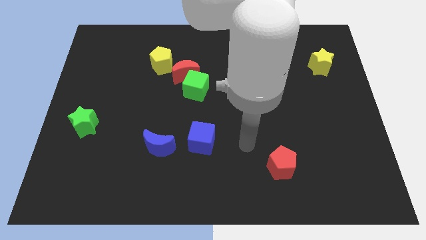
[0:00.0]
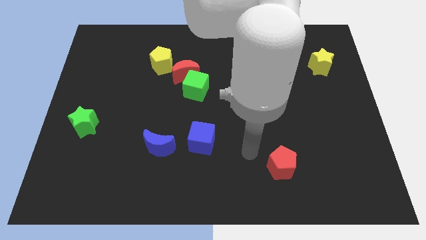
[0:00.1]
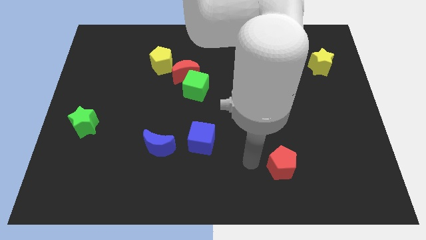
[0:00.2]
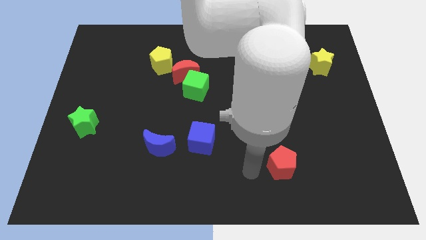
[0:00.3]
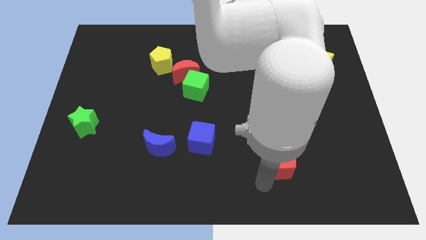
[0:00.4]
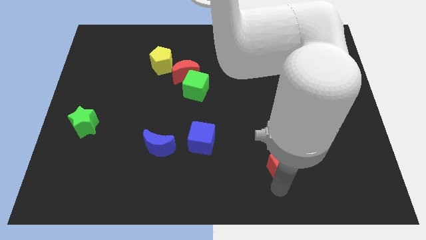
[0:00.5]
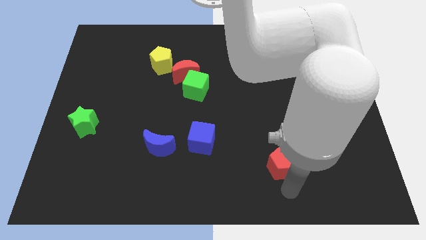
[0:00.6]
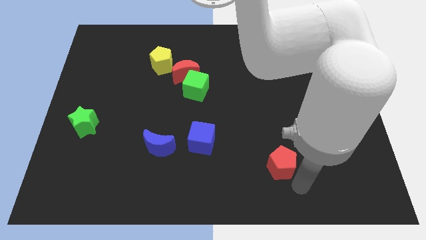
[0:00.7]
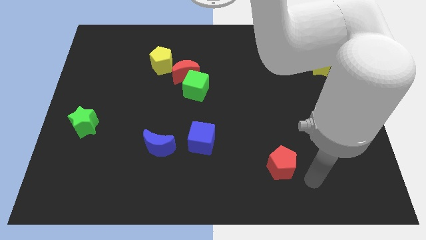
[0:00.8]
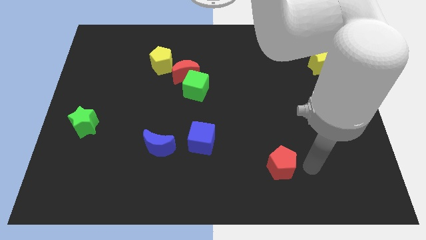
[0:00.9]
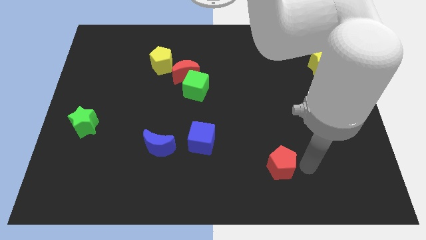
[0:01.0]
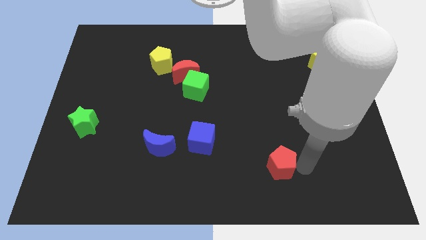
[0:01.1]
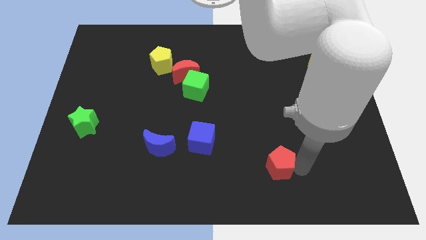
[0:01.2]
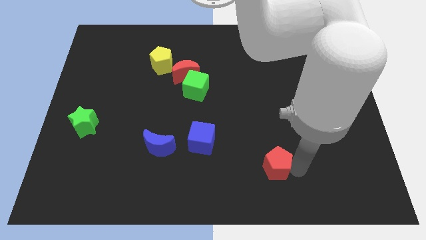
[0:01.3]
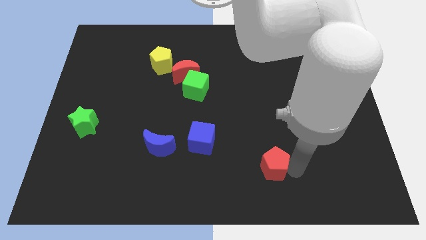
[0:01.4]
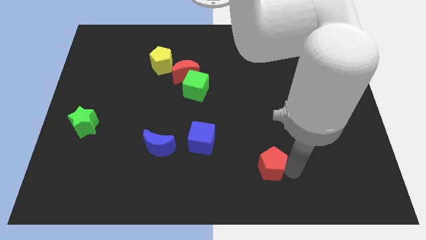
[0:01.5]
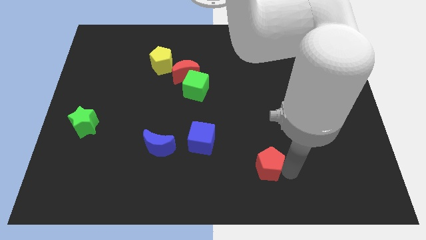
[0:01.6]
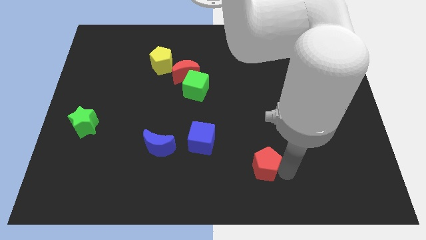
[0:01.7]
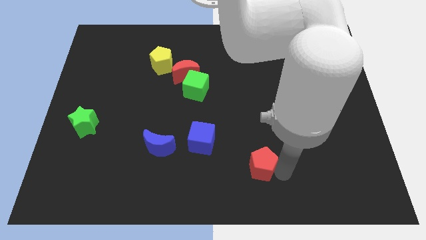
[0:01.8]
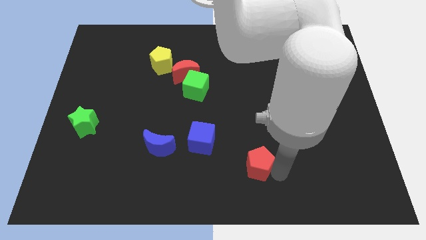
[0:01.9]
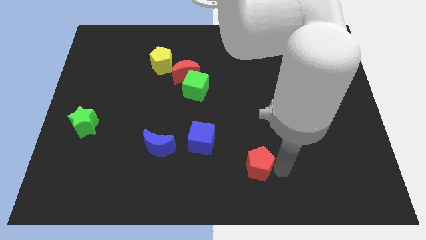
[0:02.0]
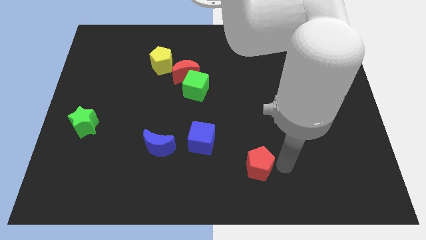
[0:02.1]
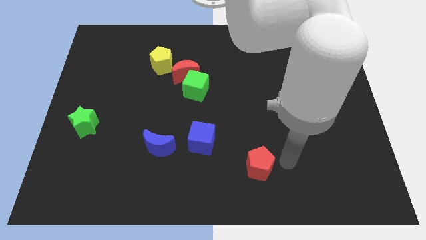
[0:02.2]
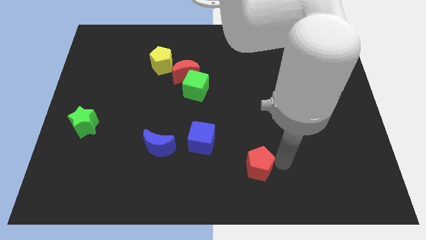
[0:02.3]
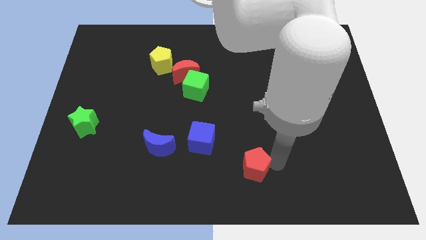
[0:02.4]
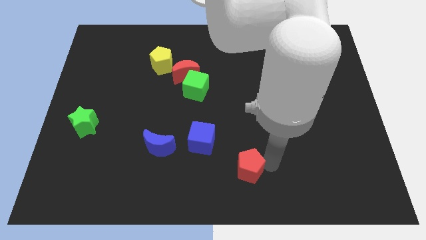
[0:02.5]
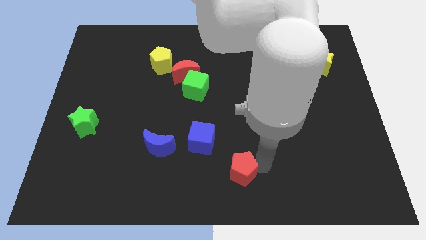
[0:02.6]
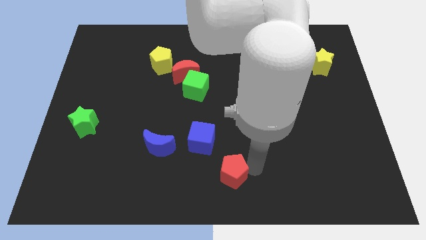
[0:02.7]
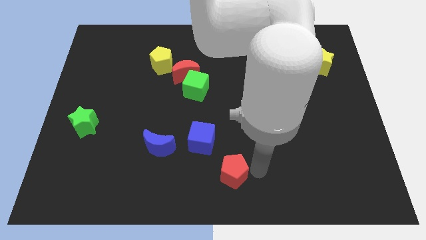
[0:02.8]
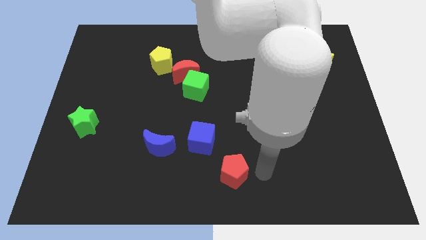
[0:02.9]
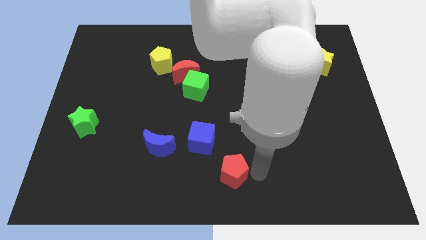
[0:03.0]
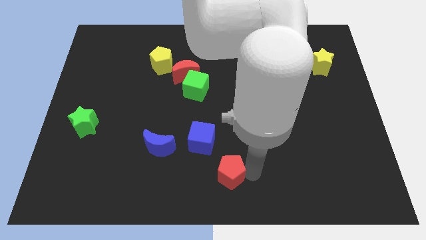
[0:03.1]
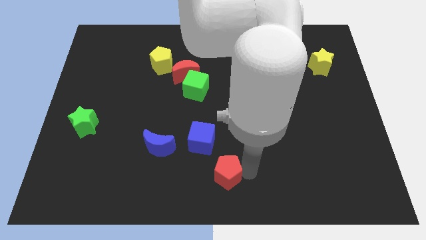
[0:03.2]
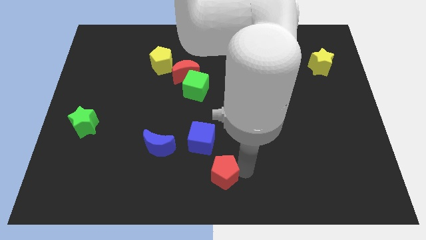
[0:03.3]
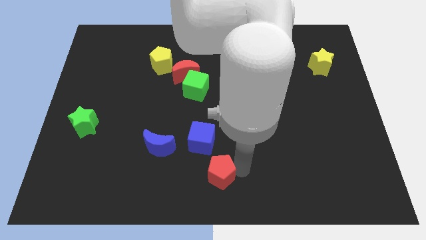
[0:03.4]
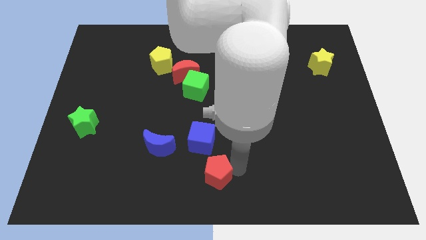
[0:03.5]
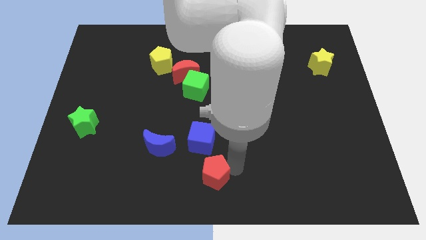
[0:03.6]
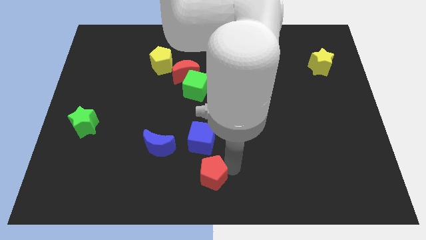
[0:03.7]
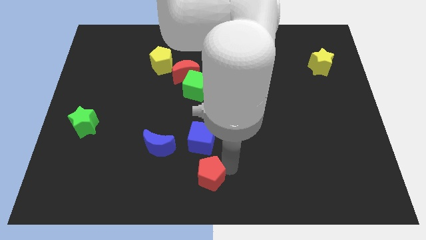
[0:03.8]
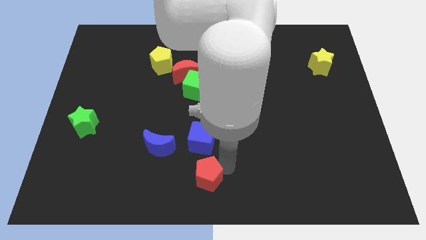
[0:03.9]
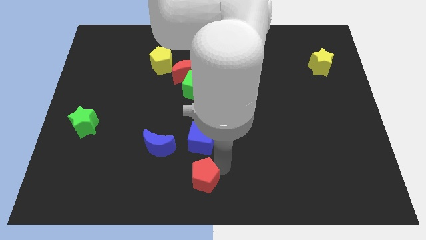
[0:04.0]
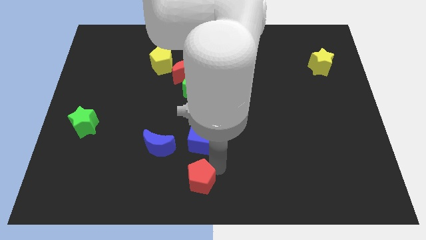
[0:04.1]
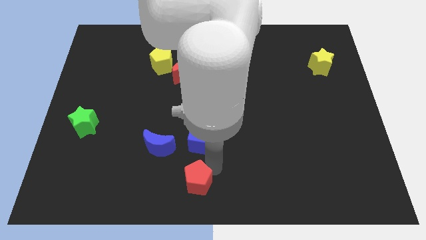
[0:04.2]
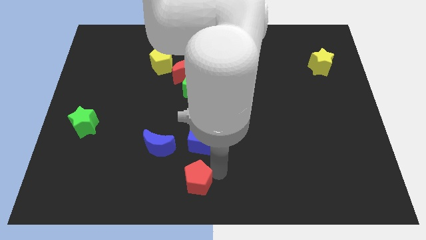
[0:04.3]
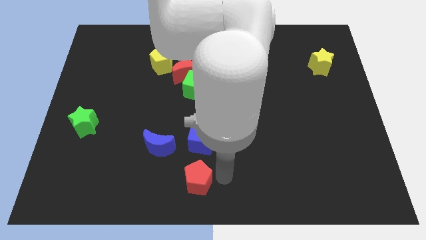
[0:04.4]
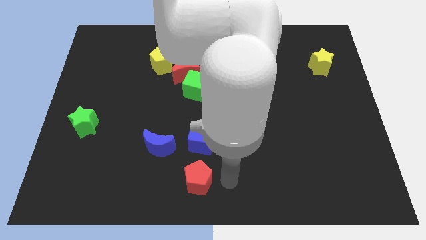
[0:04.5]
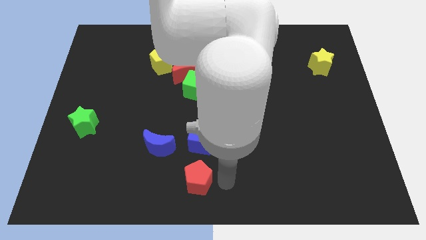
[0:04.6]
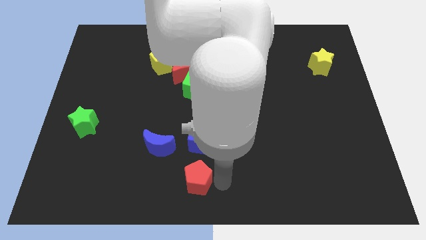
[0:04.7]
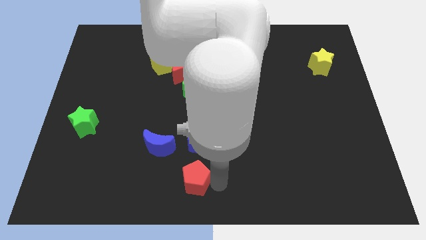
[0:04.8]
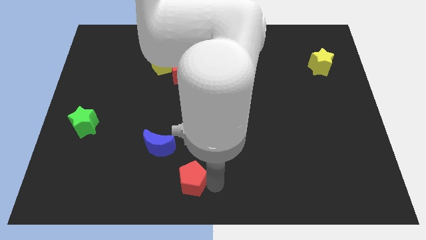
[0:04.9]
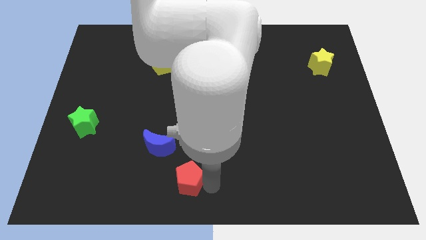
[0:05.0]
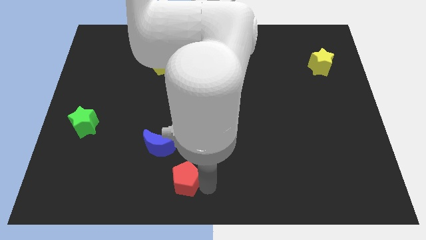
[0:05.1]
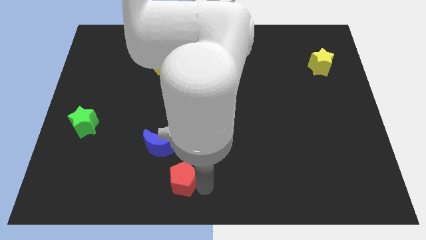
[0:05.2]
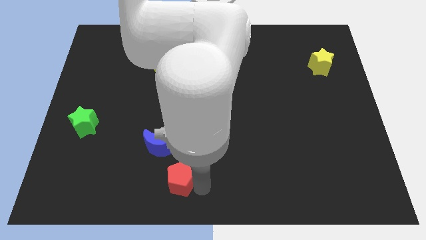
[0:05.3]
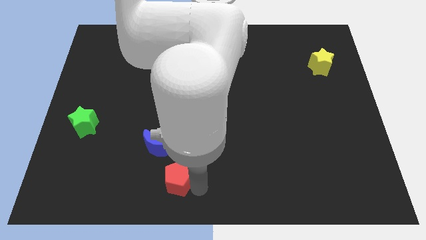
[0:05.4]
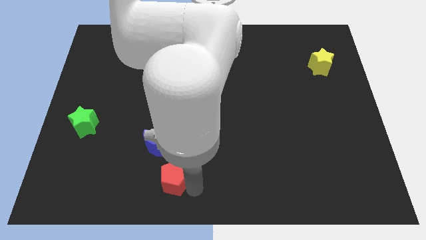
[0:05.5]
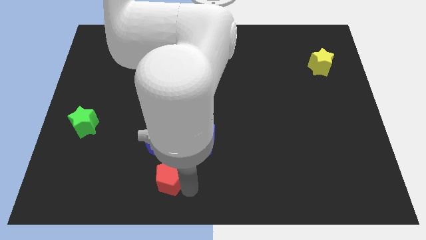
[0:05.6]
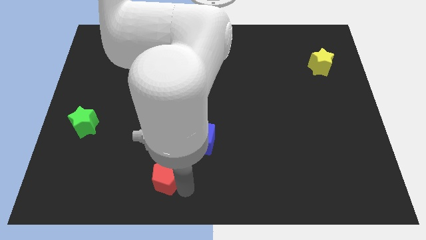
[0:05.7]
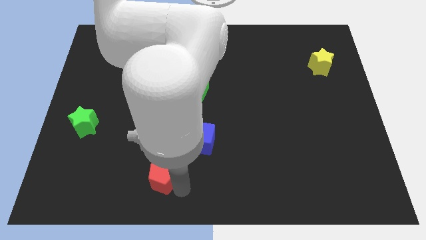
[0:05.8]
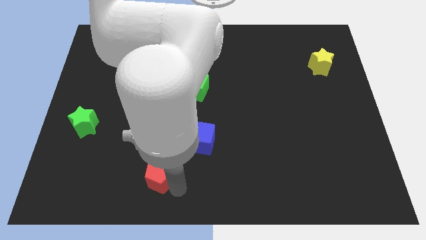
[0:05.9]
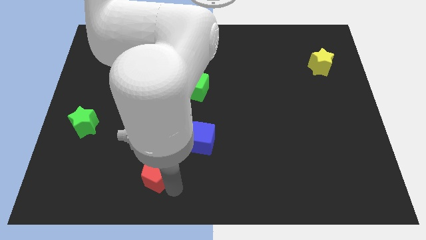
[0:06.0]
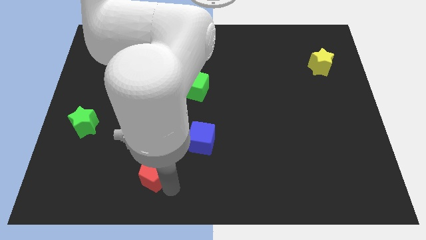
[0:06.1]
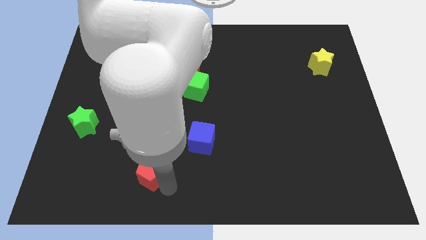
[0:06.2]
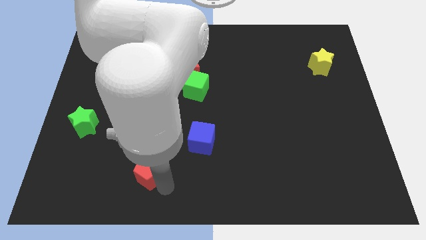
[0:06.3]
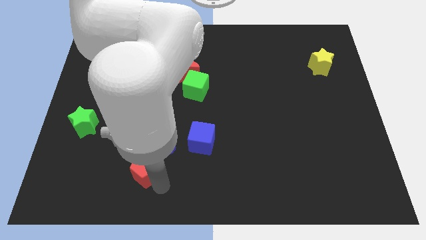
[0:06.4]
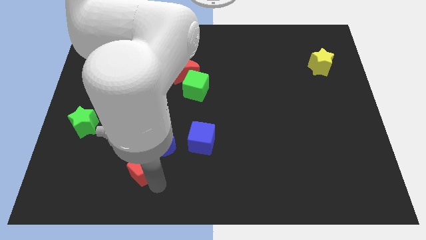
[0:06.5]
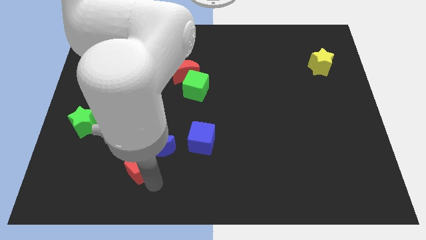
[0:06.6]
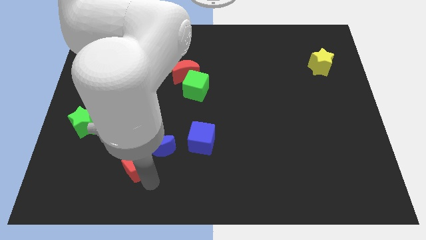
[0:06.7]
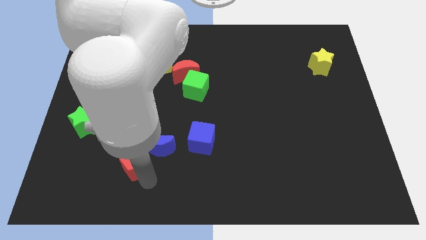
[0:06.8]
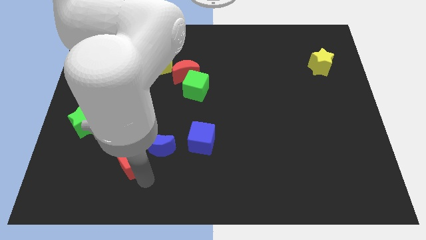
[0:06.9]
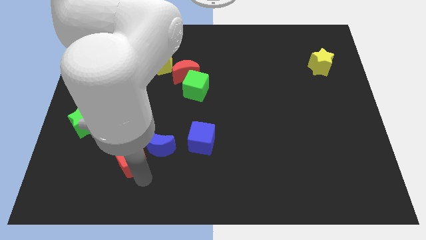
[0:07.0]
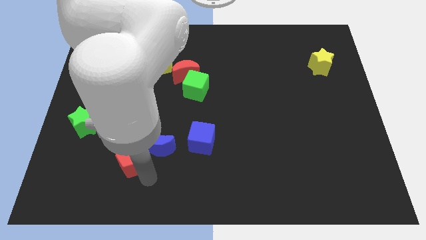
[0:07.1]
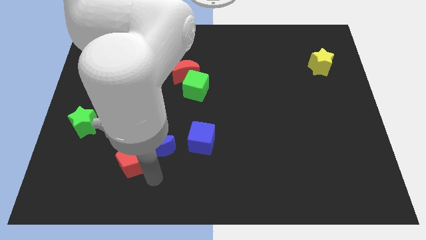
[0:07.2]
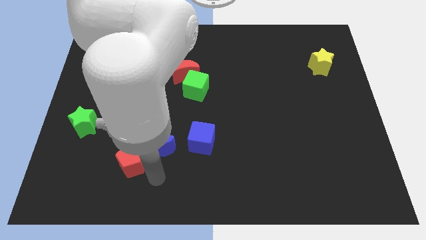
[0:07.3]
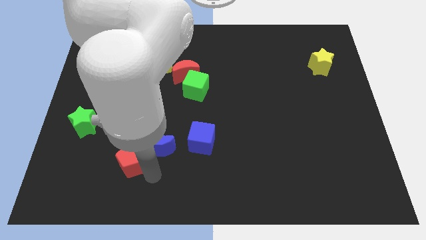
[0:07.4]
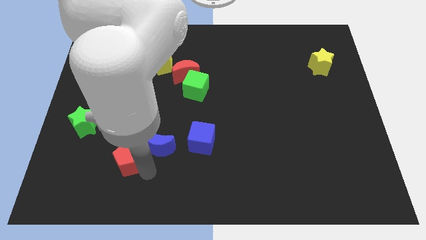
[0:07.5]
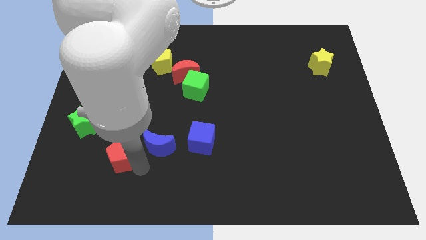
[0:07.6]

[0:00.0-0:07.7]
move the red pentagon diagonally down and to the right of the green star
